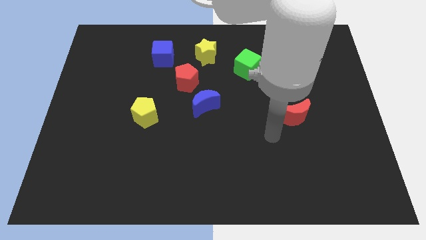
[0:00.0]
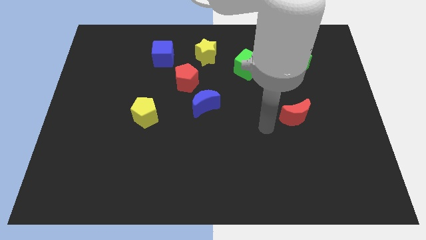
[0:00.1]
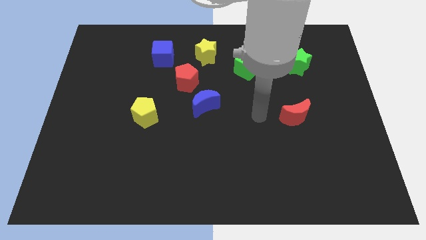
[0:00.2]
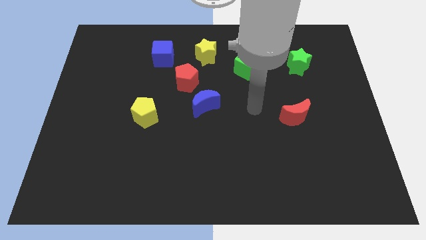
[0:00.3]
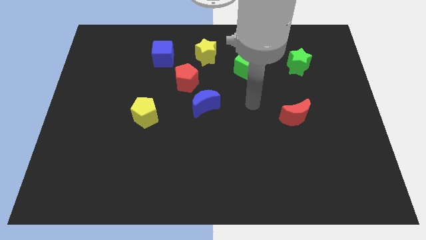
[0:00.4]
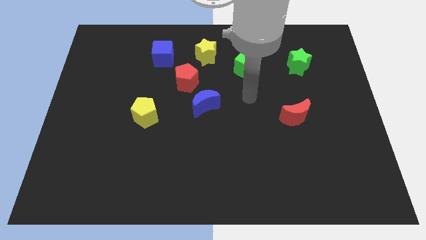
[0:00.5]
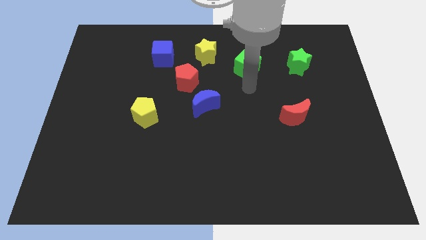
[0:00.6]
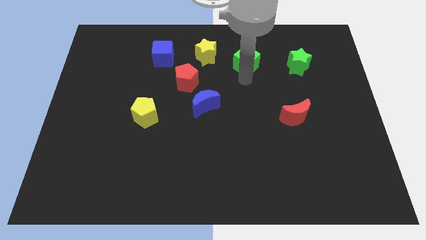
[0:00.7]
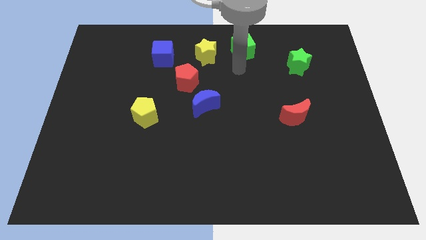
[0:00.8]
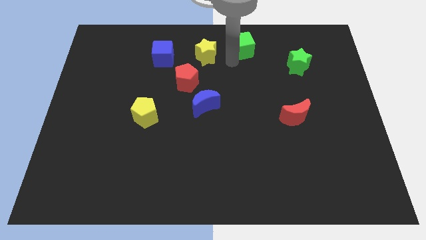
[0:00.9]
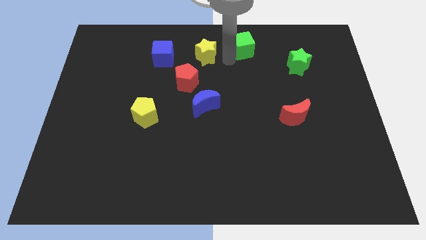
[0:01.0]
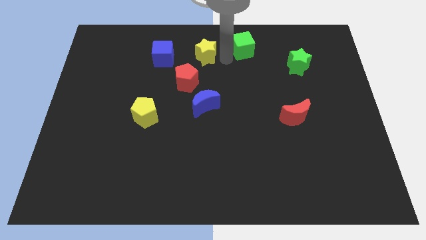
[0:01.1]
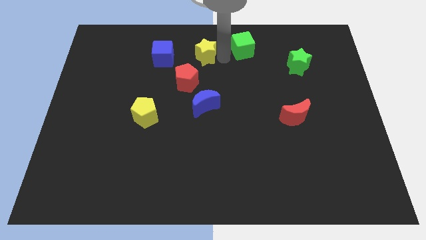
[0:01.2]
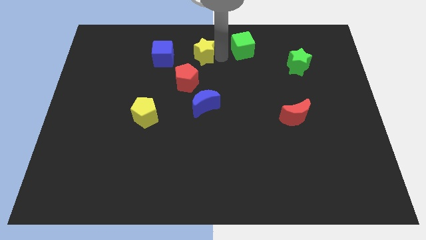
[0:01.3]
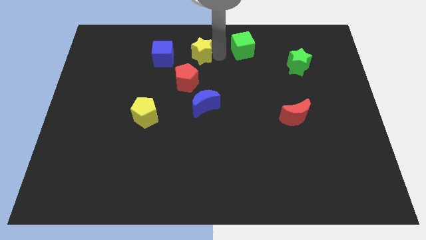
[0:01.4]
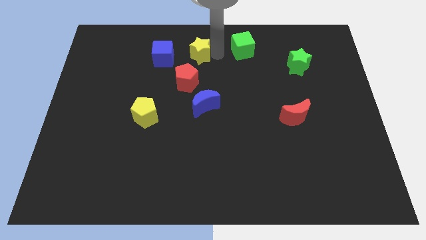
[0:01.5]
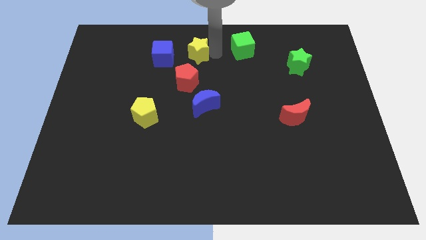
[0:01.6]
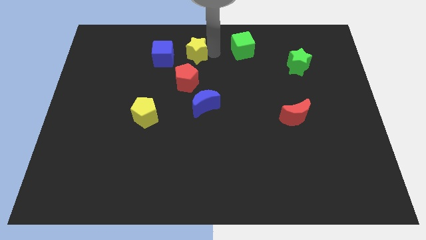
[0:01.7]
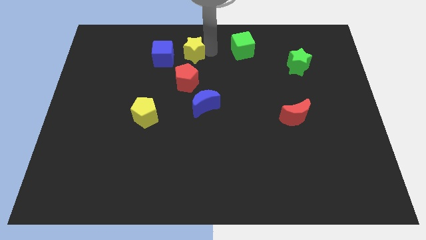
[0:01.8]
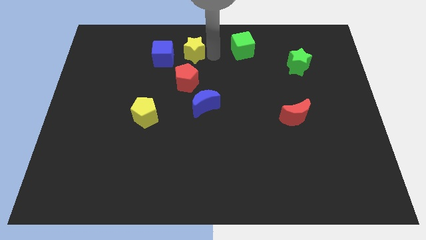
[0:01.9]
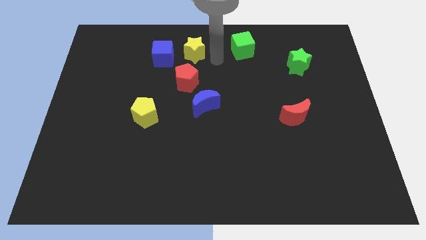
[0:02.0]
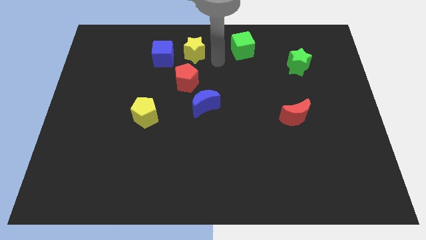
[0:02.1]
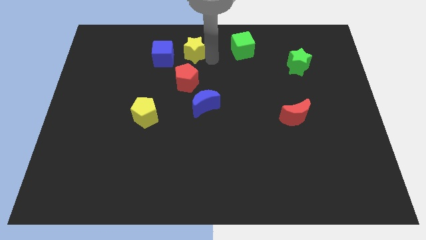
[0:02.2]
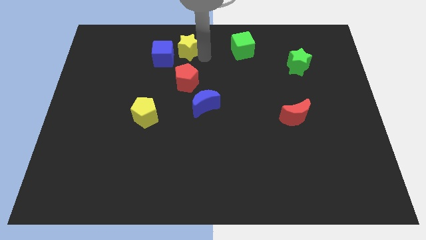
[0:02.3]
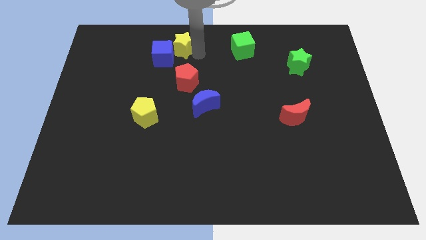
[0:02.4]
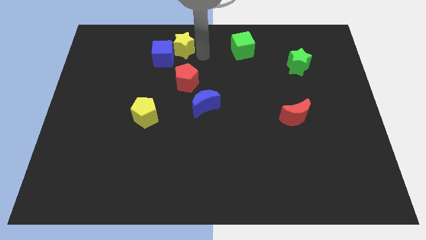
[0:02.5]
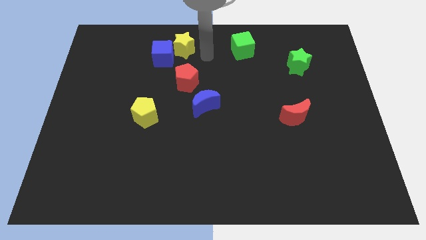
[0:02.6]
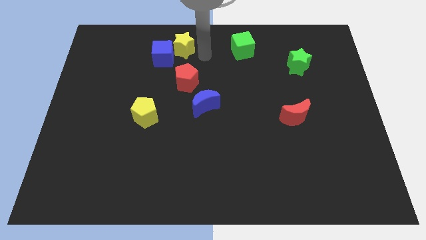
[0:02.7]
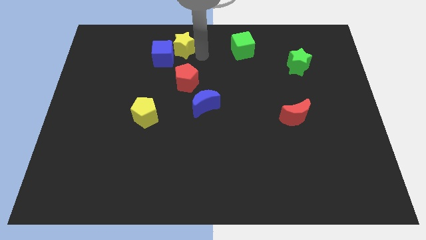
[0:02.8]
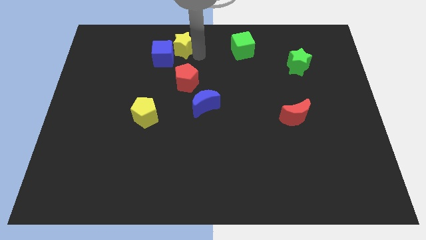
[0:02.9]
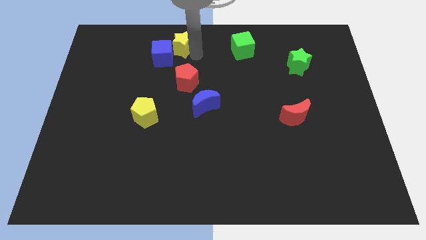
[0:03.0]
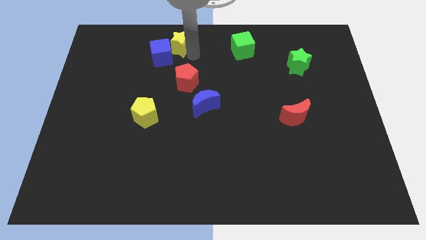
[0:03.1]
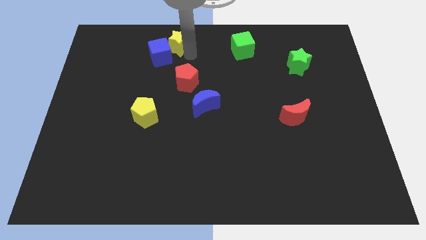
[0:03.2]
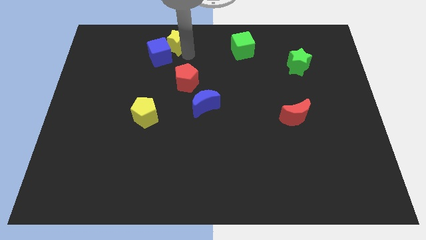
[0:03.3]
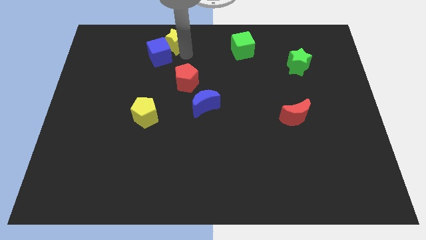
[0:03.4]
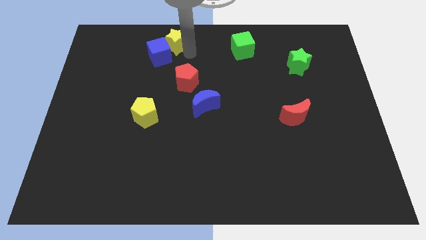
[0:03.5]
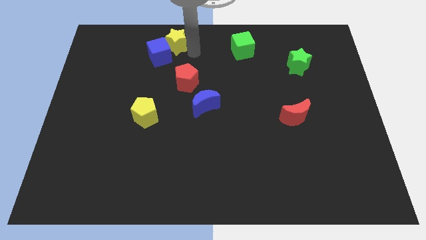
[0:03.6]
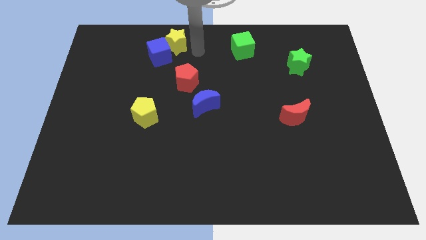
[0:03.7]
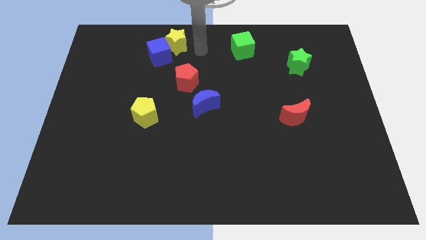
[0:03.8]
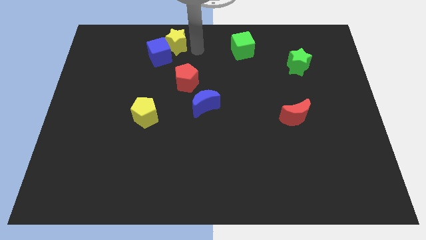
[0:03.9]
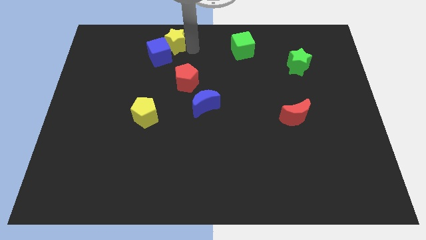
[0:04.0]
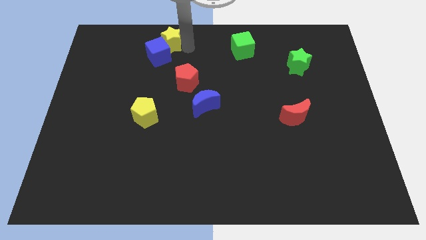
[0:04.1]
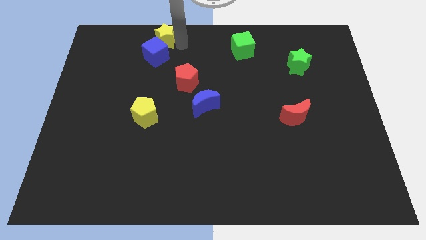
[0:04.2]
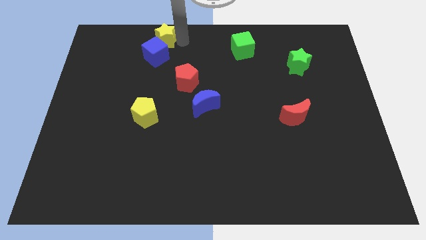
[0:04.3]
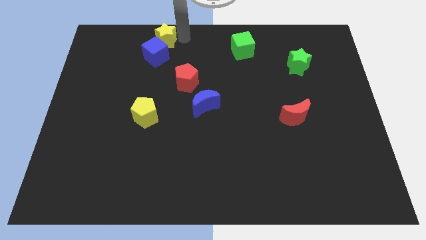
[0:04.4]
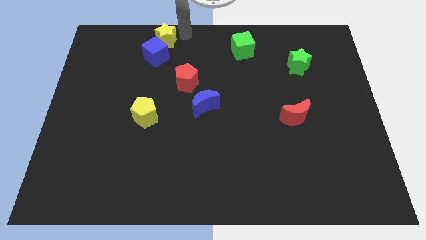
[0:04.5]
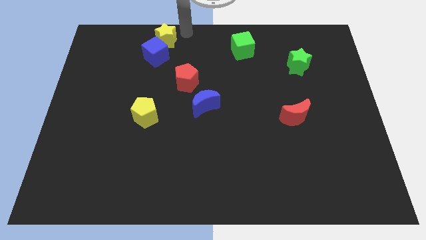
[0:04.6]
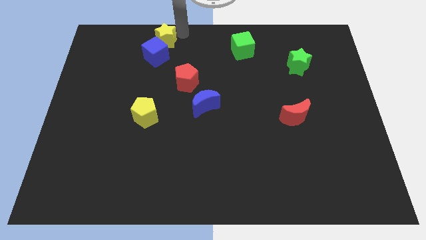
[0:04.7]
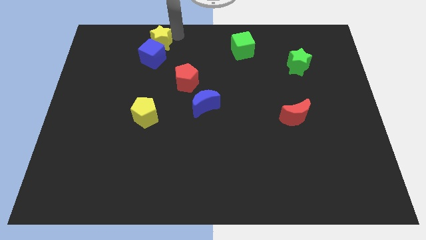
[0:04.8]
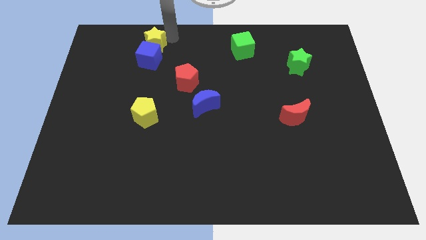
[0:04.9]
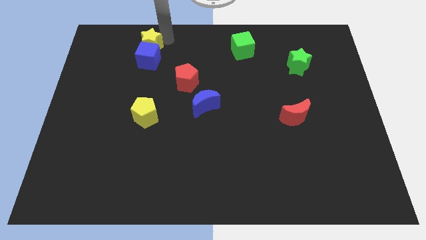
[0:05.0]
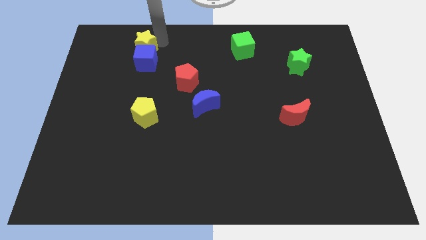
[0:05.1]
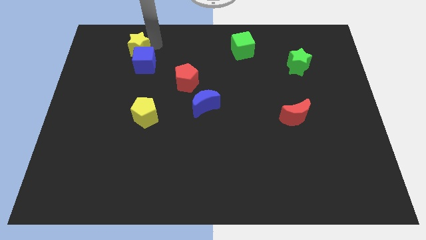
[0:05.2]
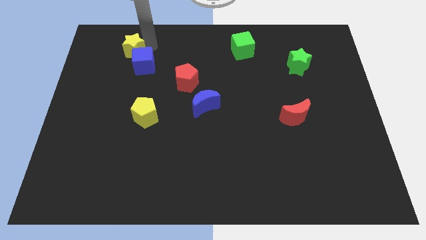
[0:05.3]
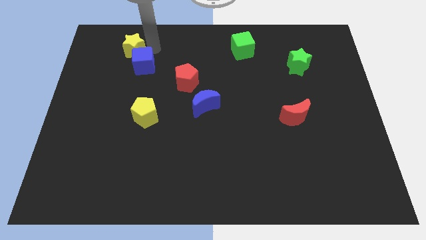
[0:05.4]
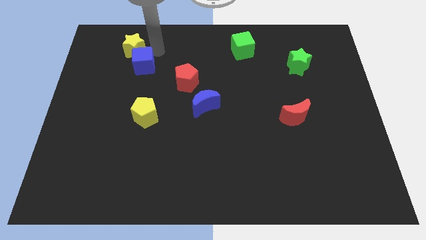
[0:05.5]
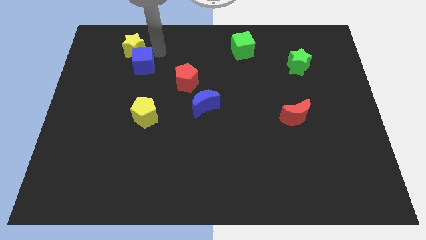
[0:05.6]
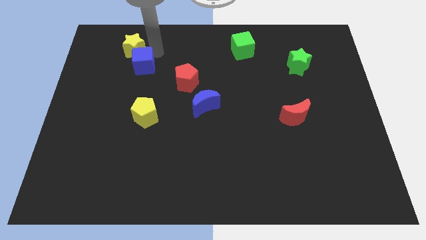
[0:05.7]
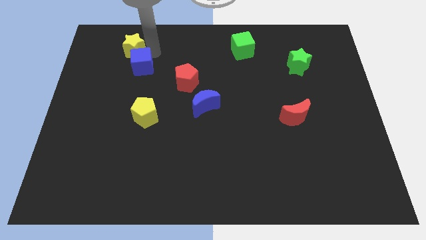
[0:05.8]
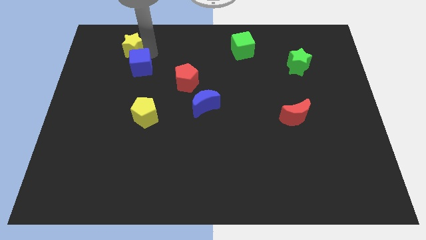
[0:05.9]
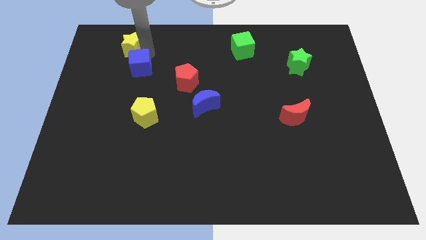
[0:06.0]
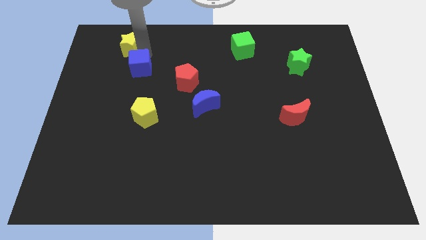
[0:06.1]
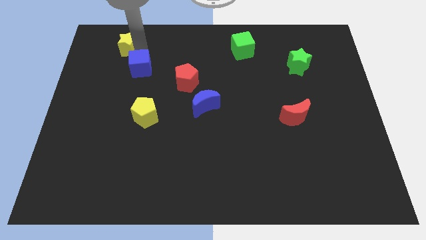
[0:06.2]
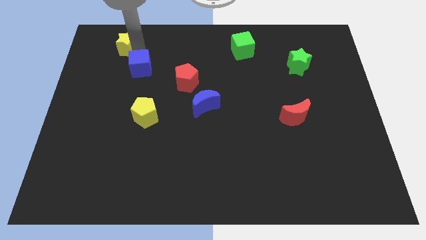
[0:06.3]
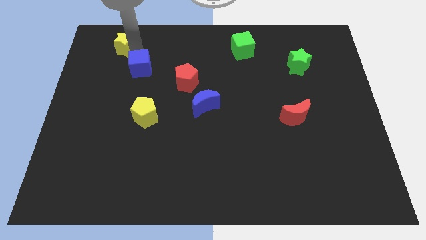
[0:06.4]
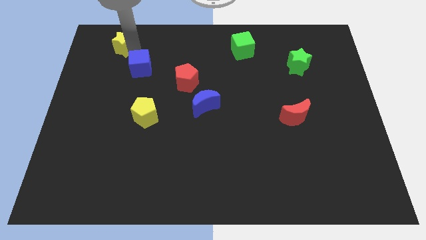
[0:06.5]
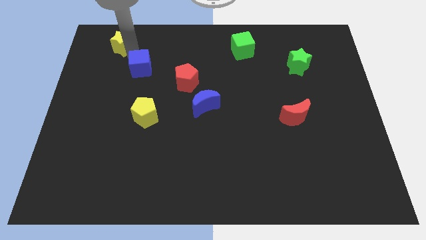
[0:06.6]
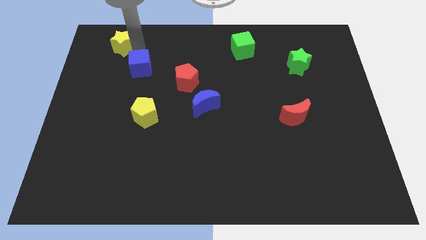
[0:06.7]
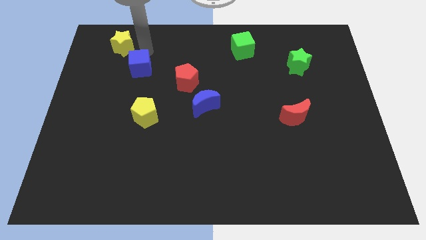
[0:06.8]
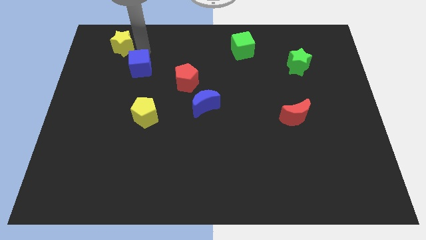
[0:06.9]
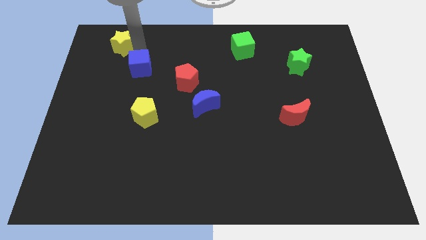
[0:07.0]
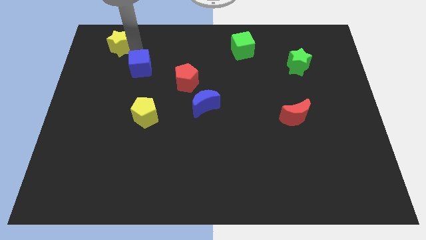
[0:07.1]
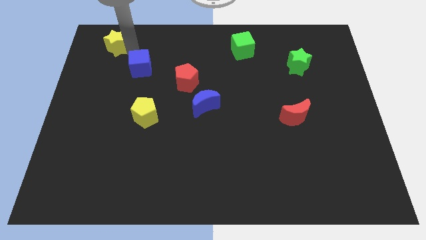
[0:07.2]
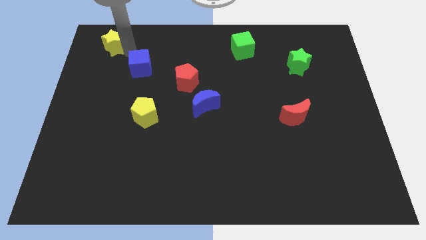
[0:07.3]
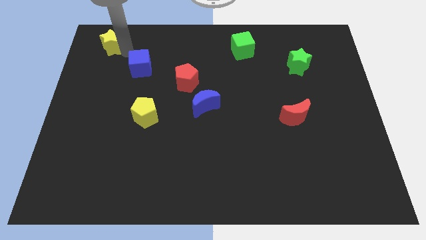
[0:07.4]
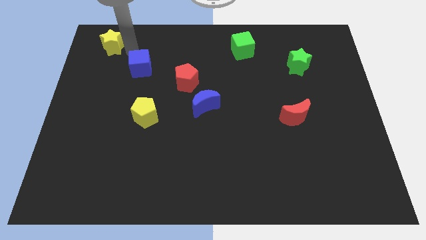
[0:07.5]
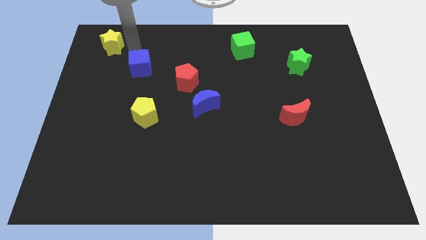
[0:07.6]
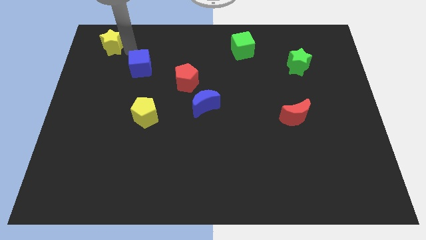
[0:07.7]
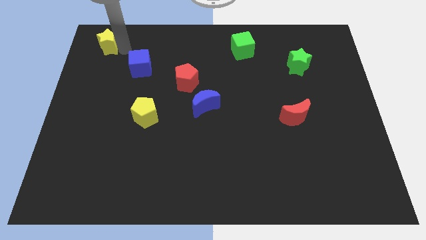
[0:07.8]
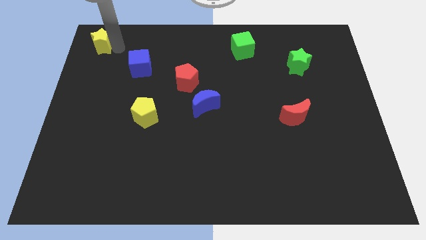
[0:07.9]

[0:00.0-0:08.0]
put the yellow star to the upper left corner
